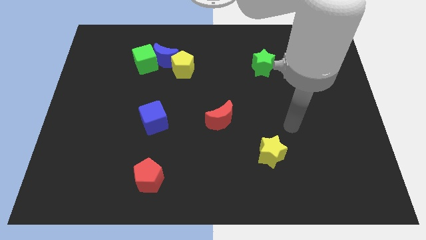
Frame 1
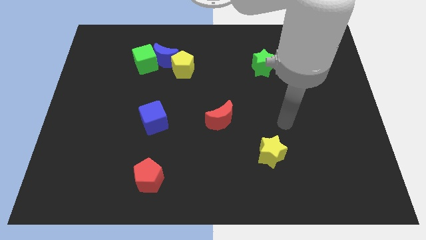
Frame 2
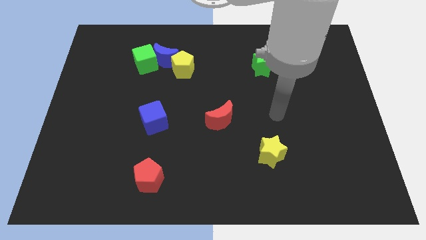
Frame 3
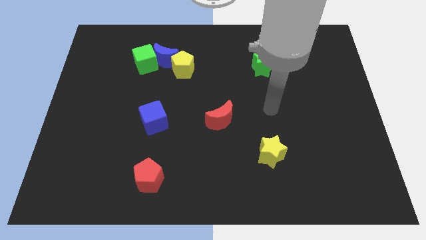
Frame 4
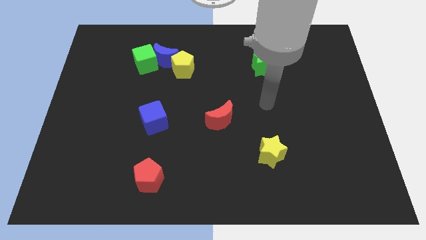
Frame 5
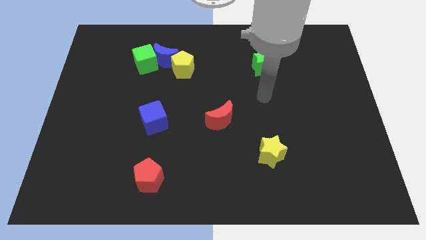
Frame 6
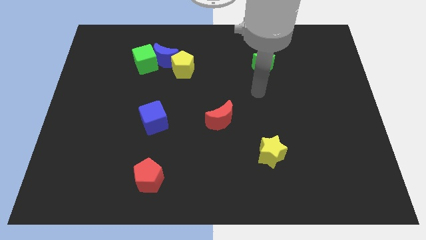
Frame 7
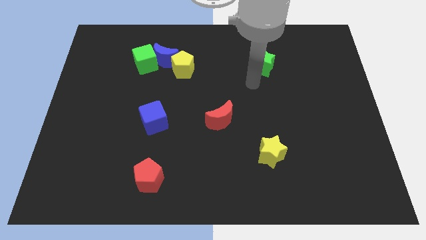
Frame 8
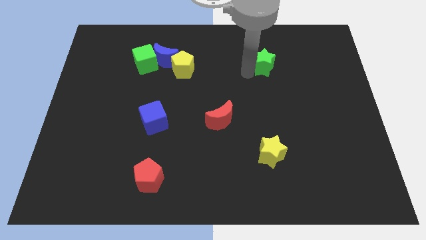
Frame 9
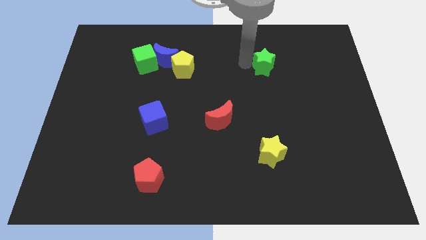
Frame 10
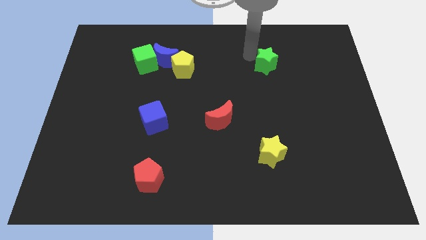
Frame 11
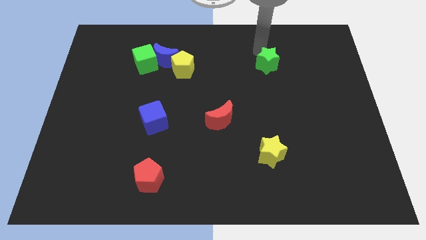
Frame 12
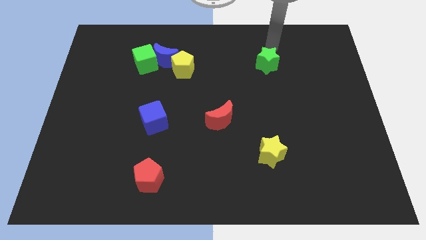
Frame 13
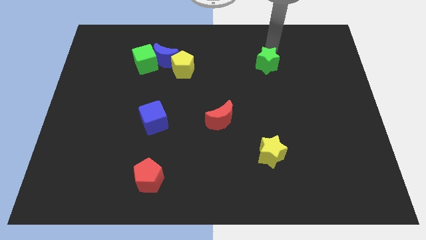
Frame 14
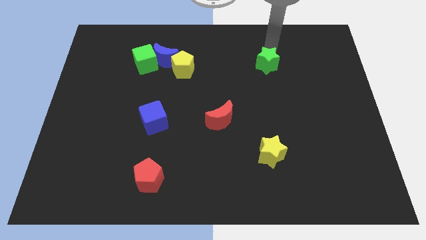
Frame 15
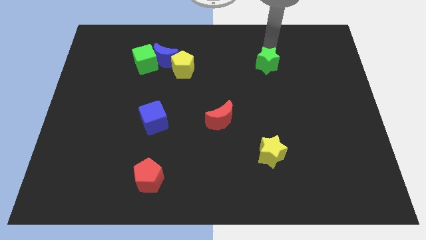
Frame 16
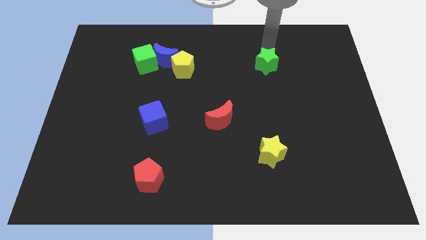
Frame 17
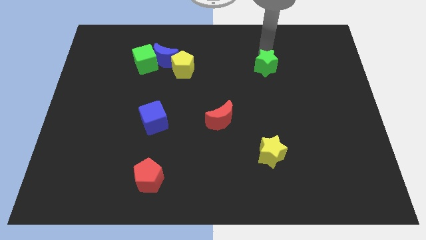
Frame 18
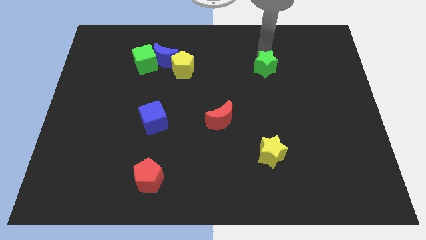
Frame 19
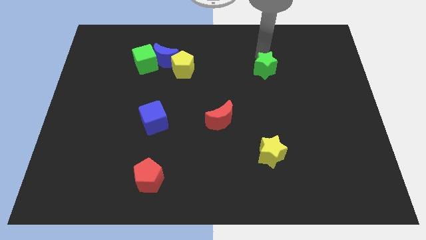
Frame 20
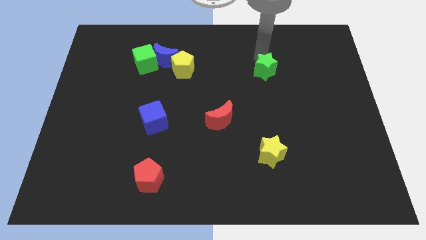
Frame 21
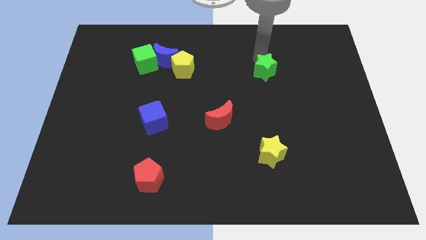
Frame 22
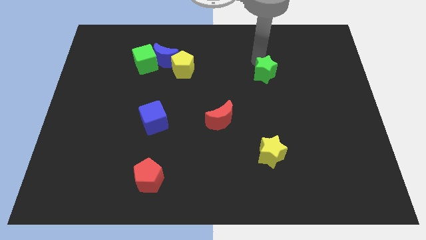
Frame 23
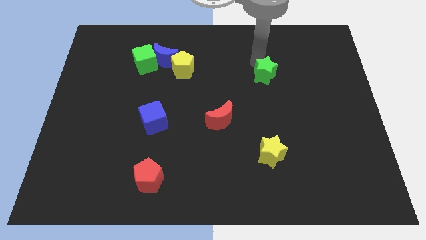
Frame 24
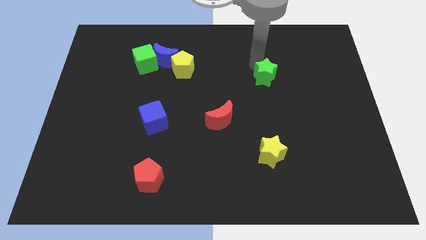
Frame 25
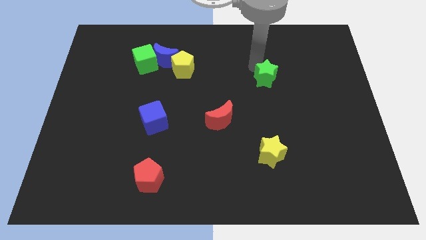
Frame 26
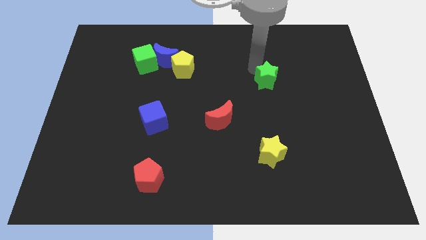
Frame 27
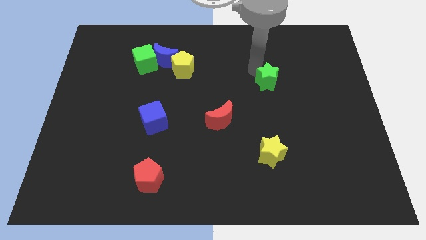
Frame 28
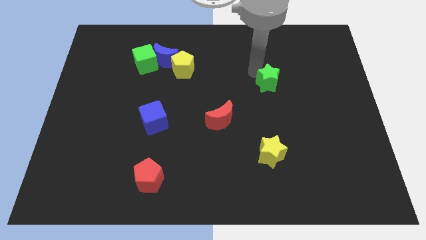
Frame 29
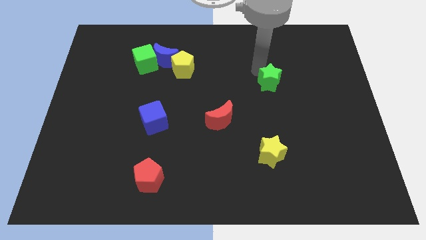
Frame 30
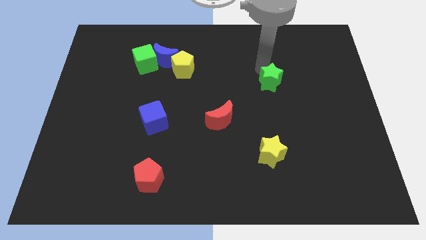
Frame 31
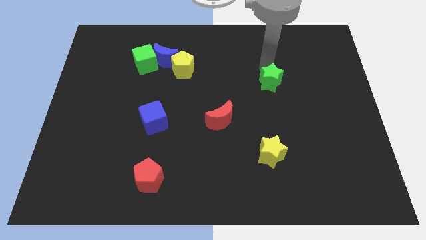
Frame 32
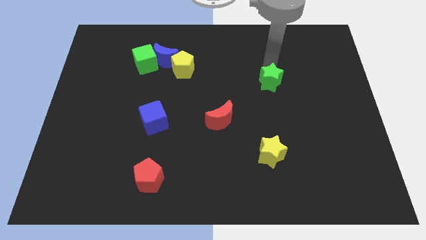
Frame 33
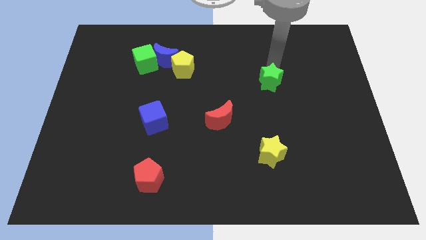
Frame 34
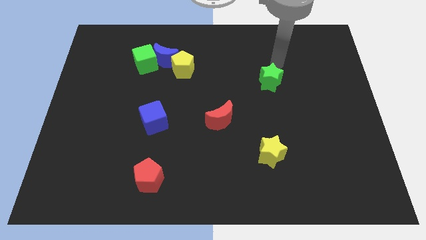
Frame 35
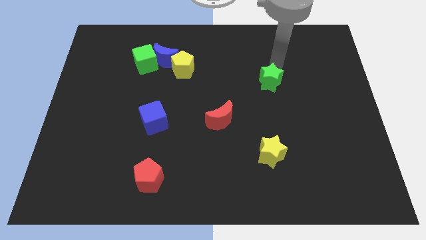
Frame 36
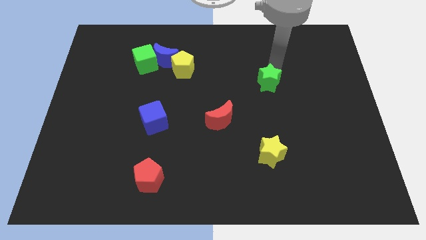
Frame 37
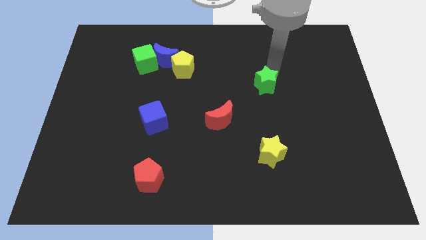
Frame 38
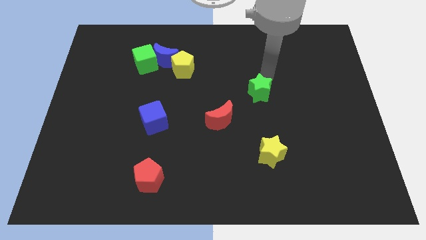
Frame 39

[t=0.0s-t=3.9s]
push the green star down somewhat

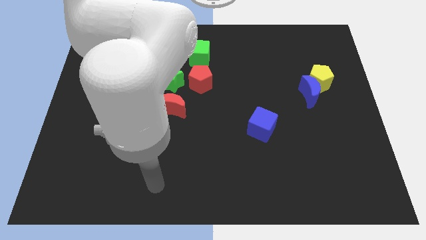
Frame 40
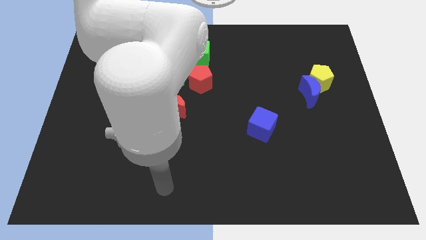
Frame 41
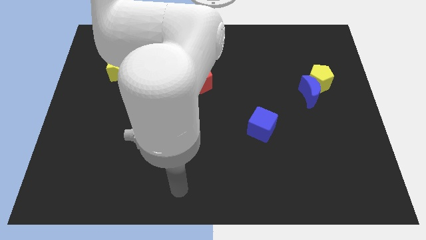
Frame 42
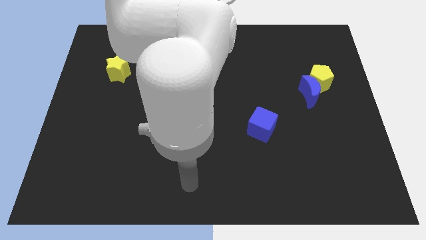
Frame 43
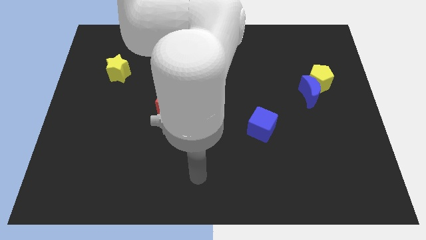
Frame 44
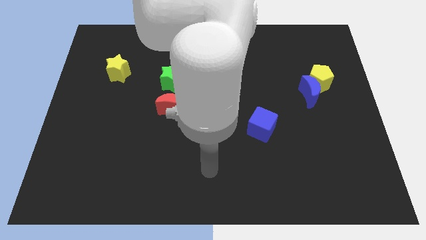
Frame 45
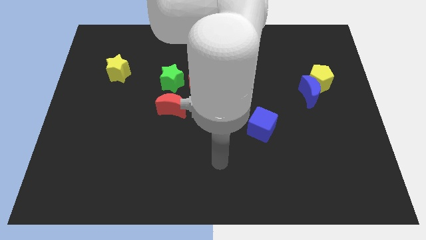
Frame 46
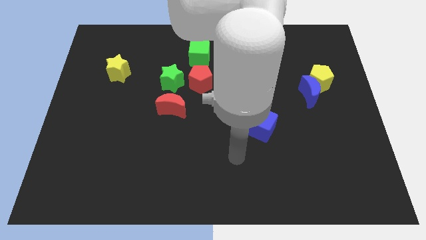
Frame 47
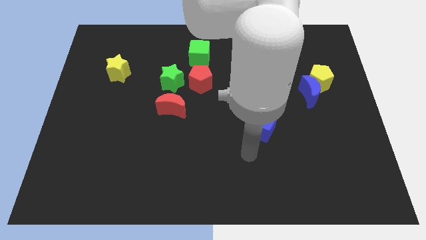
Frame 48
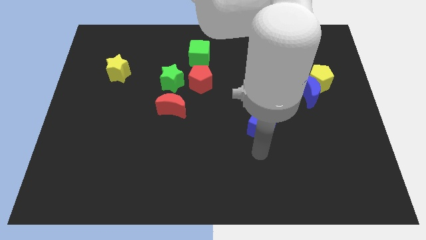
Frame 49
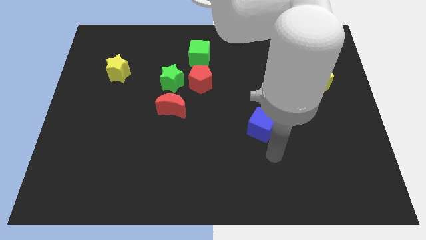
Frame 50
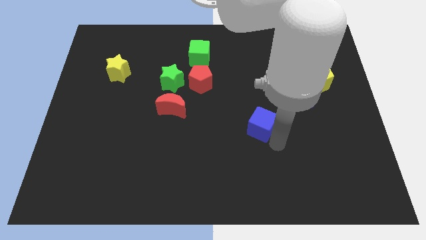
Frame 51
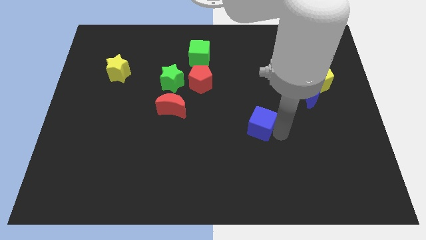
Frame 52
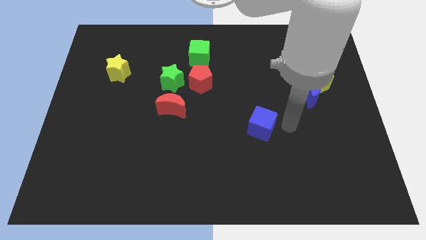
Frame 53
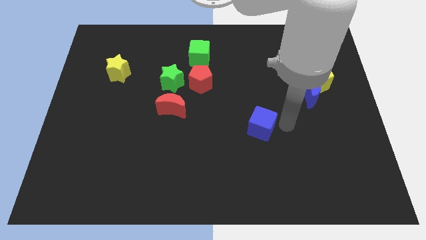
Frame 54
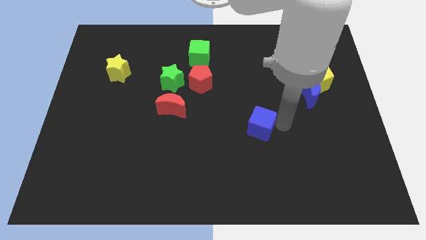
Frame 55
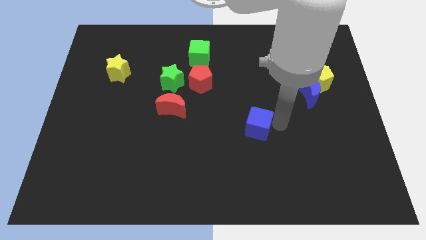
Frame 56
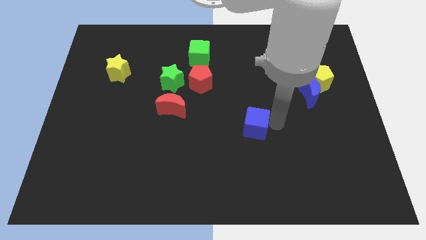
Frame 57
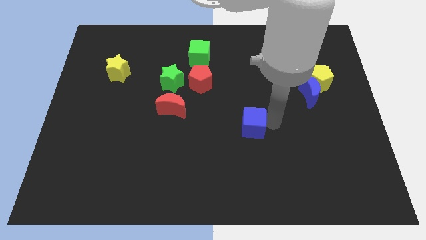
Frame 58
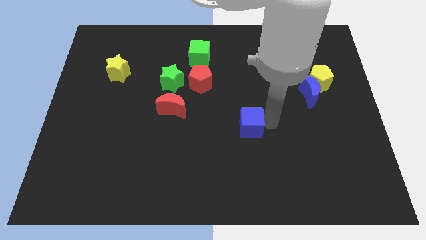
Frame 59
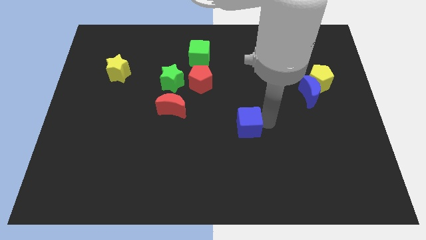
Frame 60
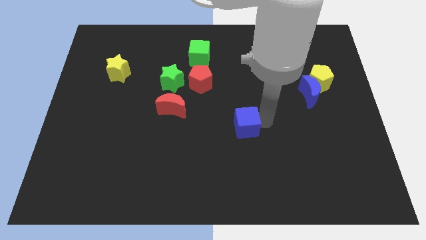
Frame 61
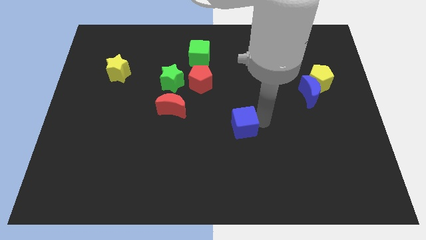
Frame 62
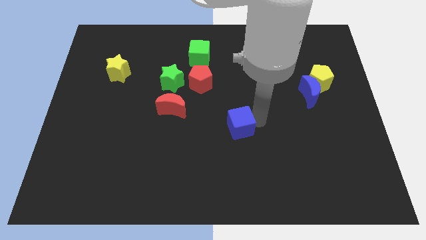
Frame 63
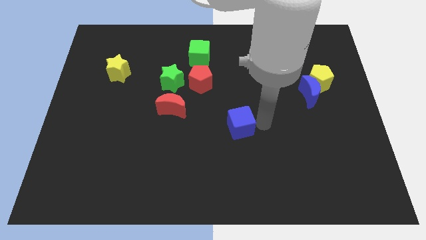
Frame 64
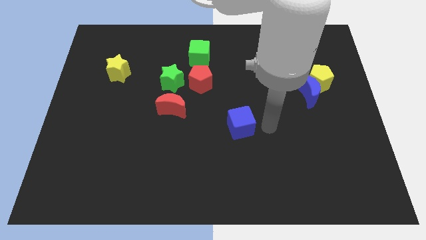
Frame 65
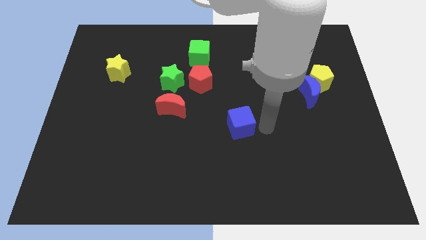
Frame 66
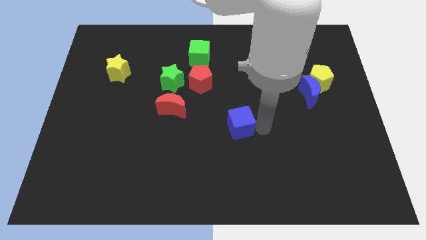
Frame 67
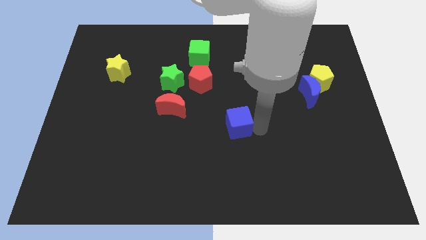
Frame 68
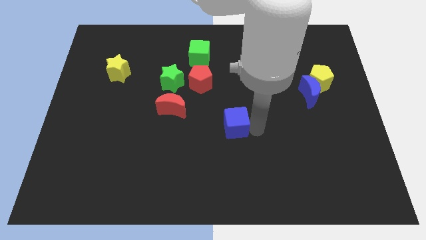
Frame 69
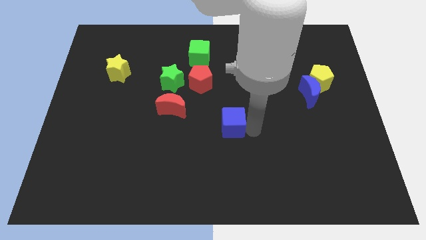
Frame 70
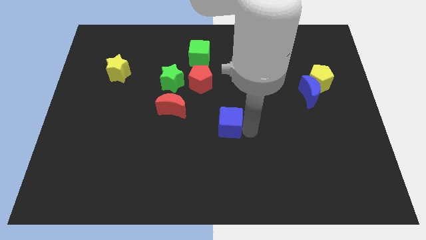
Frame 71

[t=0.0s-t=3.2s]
slightly push the blue cube to the left

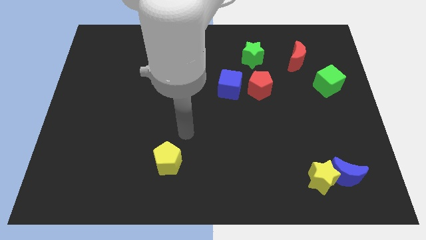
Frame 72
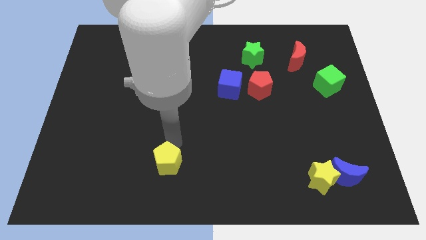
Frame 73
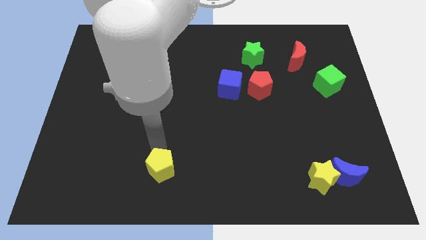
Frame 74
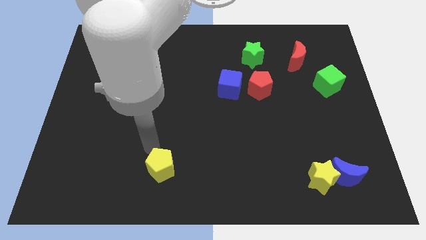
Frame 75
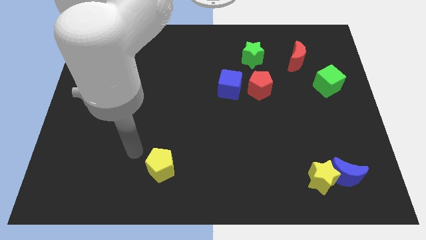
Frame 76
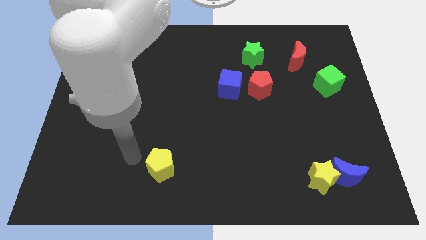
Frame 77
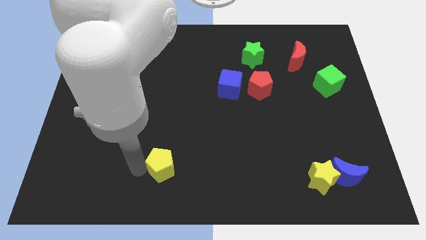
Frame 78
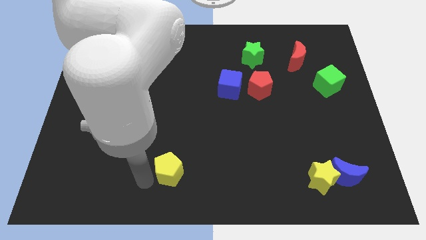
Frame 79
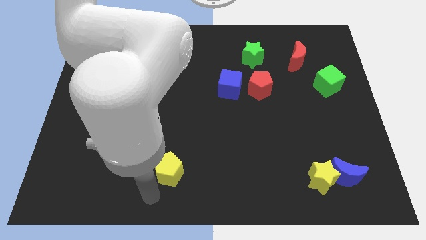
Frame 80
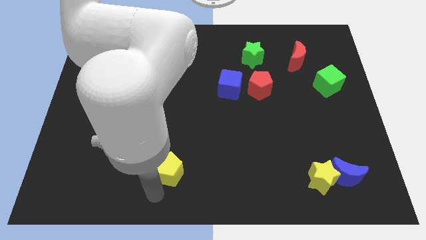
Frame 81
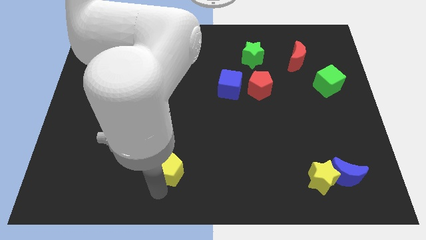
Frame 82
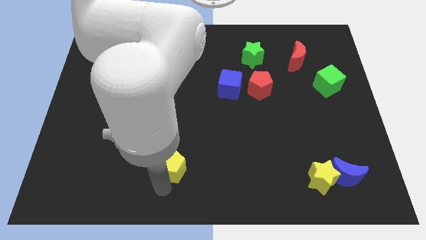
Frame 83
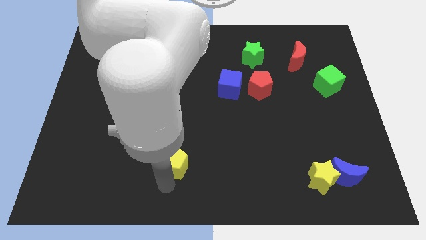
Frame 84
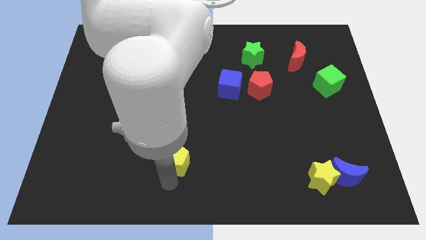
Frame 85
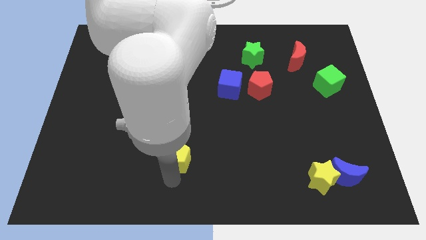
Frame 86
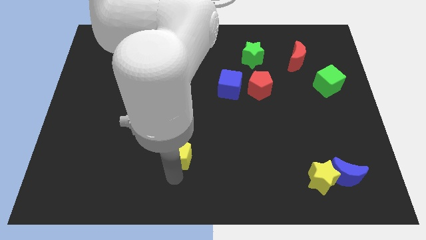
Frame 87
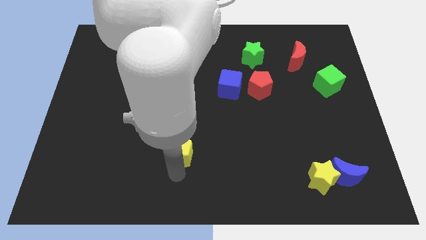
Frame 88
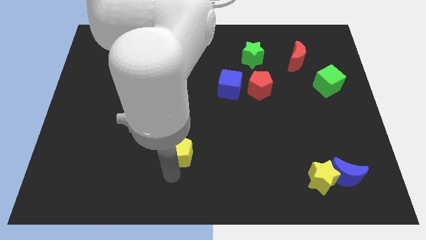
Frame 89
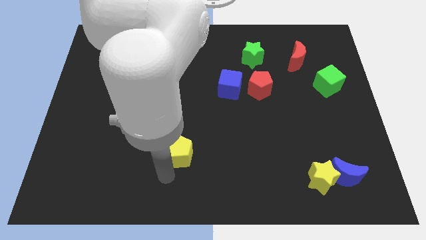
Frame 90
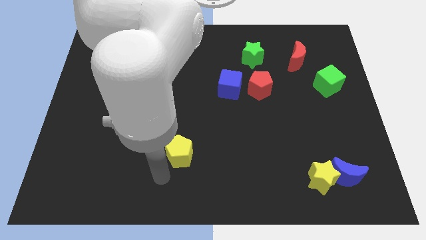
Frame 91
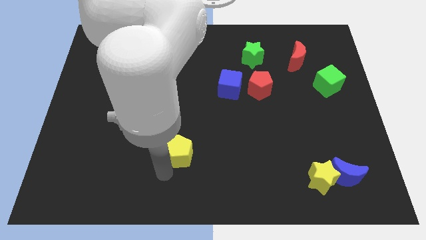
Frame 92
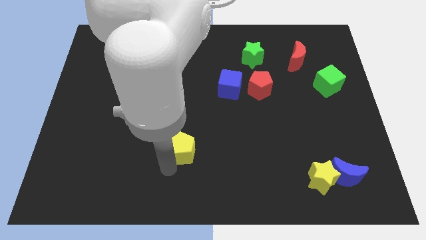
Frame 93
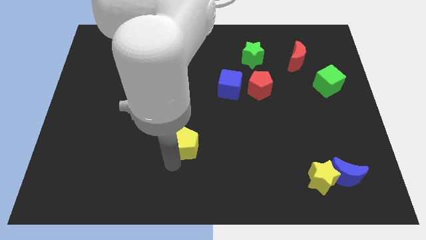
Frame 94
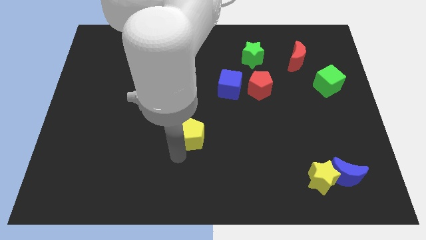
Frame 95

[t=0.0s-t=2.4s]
push the yellow pentagon a bit diagonally up and to the right
